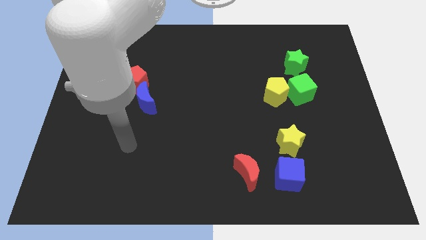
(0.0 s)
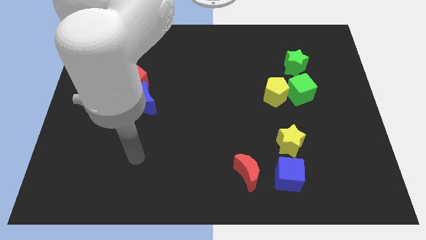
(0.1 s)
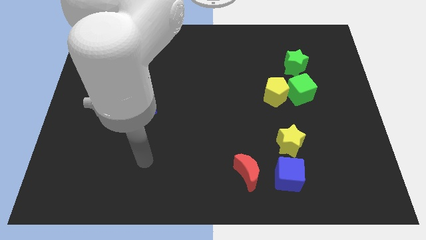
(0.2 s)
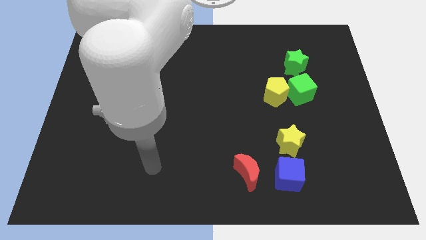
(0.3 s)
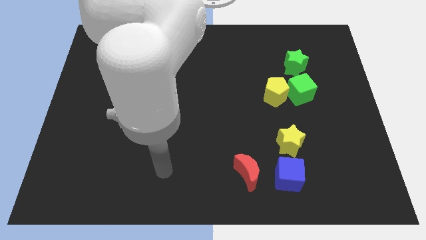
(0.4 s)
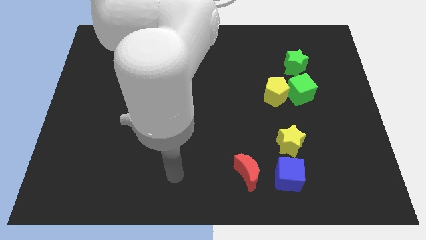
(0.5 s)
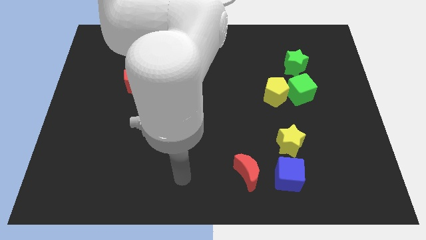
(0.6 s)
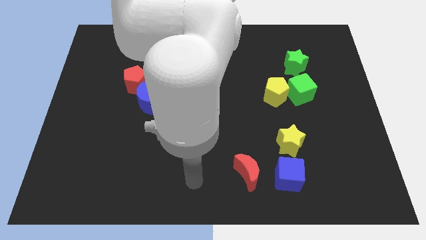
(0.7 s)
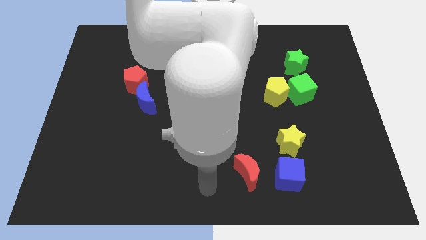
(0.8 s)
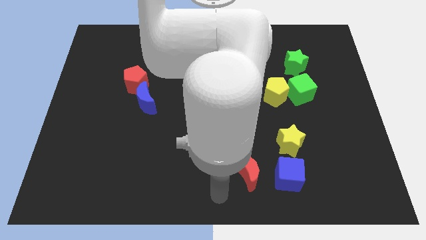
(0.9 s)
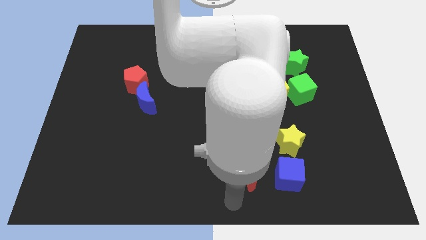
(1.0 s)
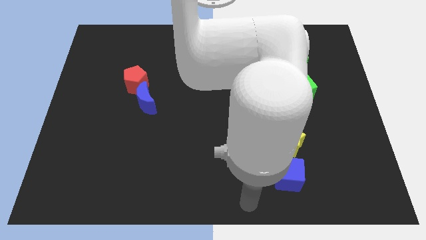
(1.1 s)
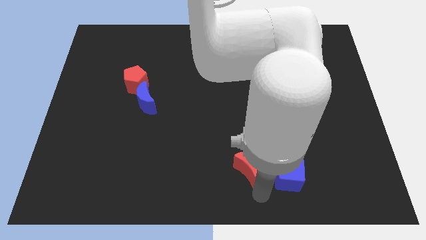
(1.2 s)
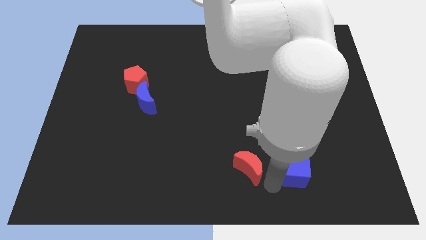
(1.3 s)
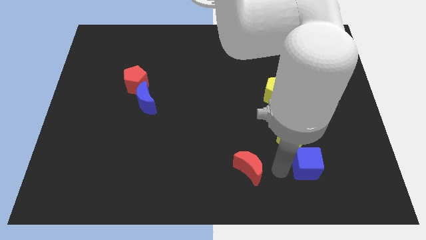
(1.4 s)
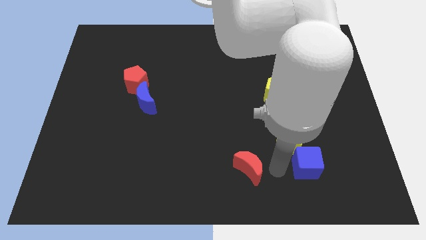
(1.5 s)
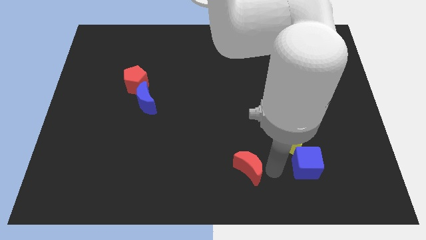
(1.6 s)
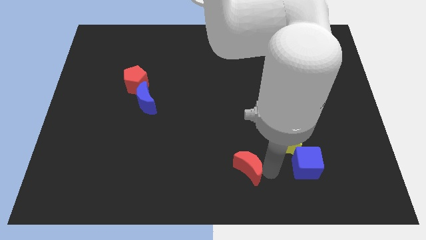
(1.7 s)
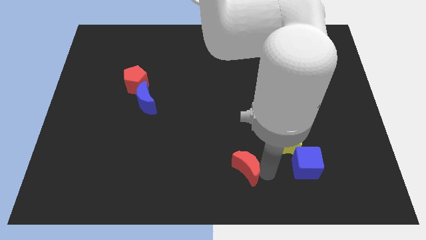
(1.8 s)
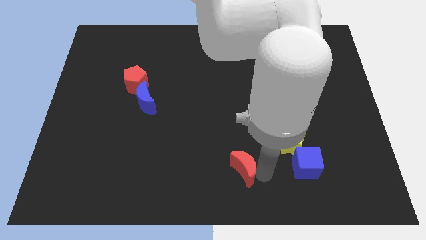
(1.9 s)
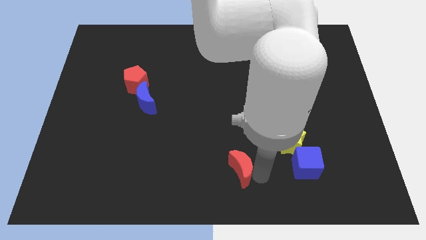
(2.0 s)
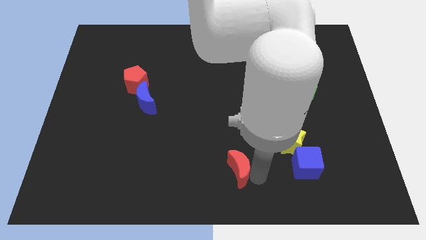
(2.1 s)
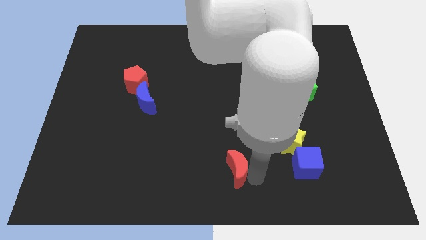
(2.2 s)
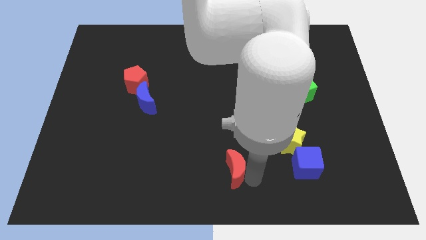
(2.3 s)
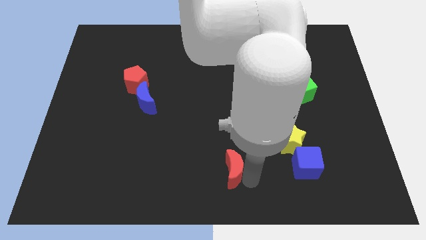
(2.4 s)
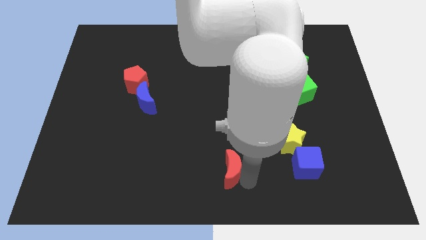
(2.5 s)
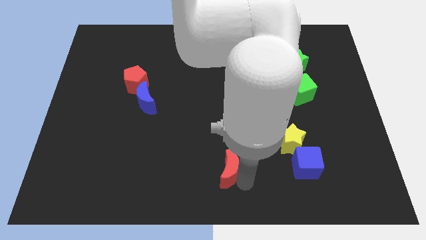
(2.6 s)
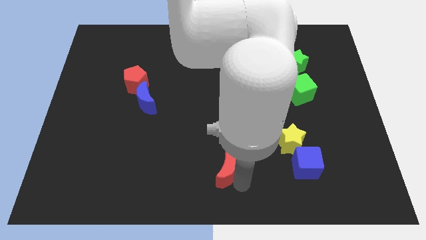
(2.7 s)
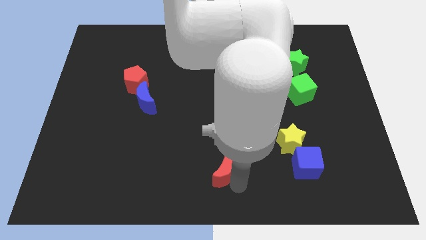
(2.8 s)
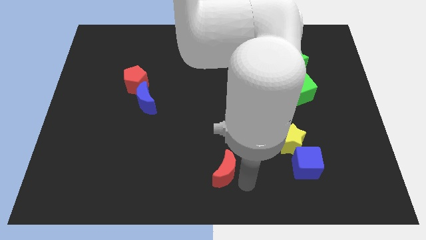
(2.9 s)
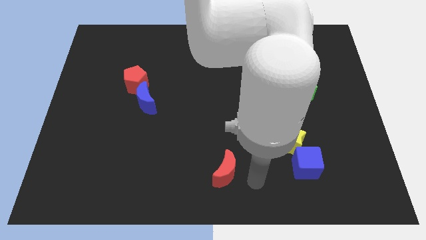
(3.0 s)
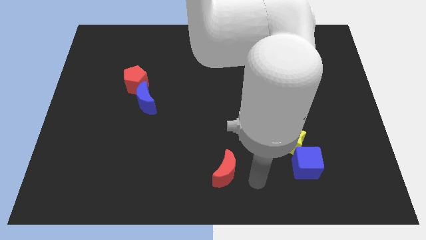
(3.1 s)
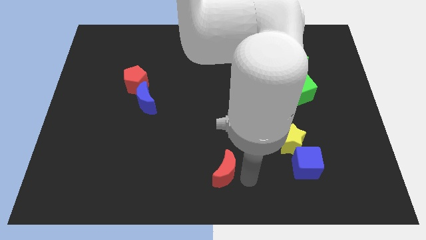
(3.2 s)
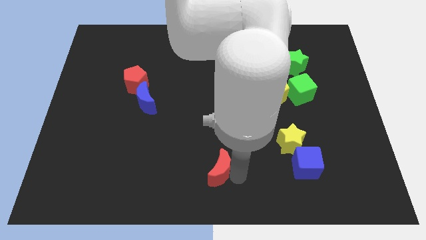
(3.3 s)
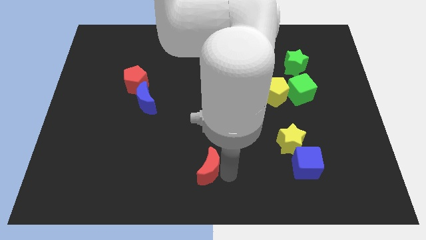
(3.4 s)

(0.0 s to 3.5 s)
move the red moon to the left a little

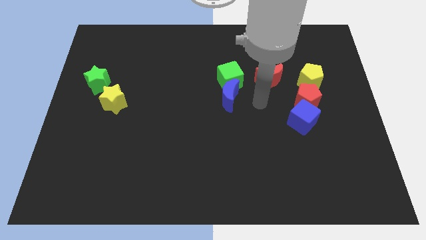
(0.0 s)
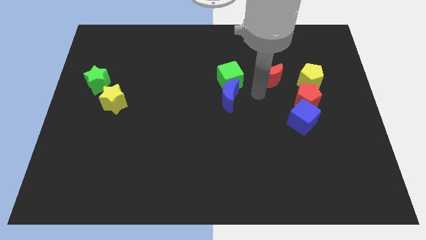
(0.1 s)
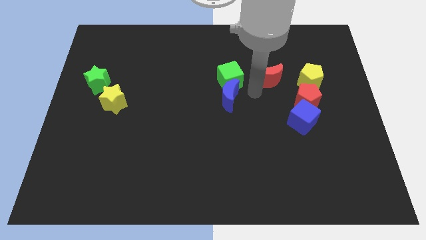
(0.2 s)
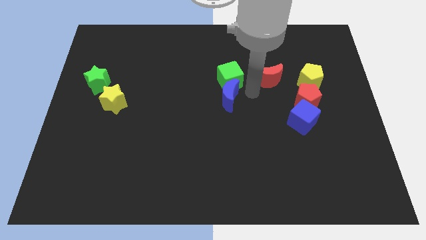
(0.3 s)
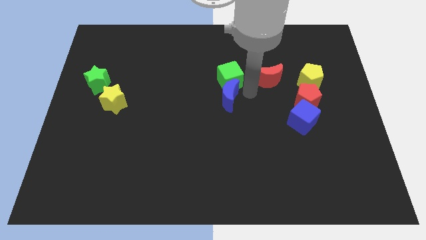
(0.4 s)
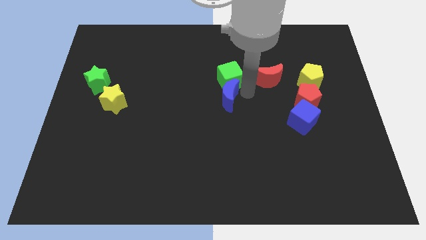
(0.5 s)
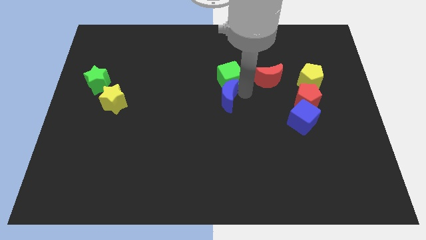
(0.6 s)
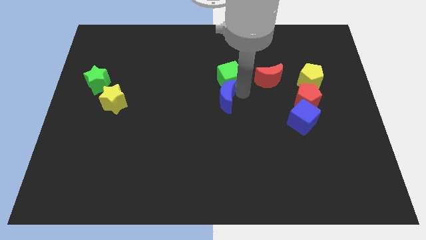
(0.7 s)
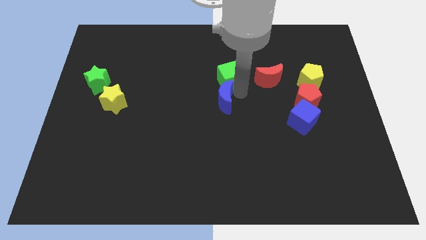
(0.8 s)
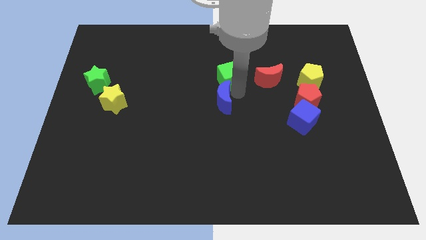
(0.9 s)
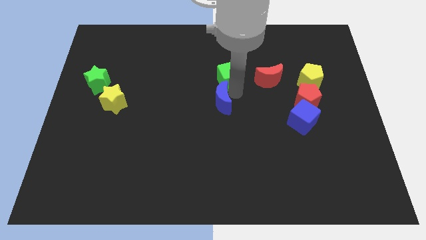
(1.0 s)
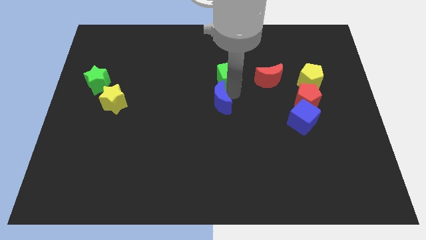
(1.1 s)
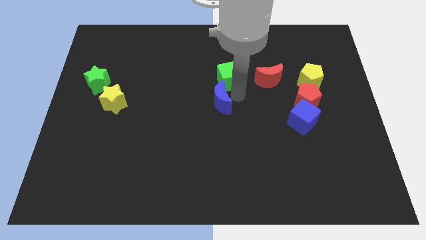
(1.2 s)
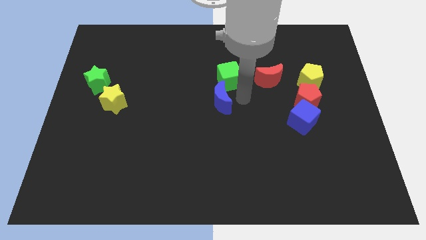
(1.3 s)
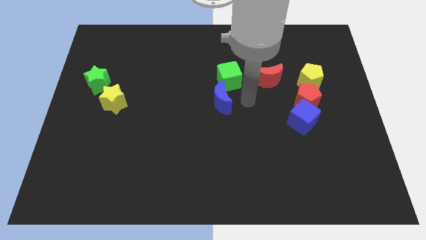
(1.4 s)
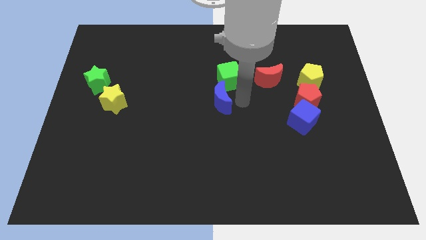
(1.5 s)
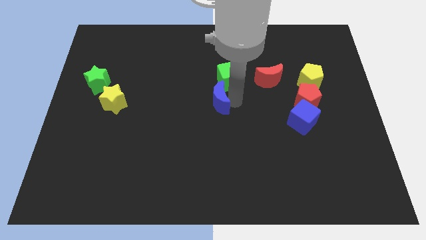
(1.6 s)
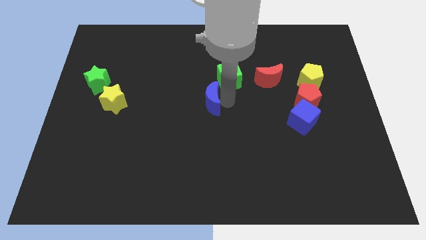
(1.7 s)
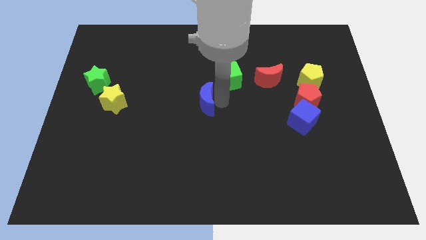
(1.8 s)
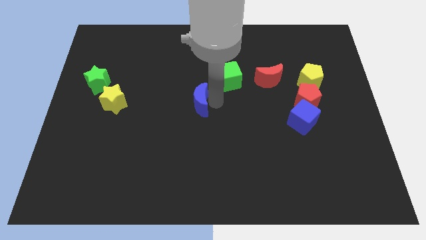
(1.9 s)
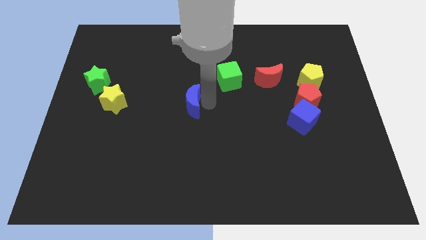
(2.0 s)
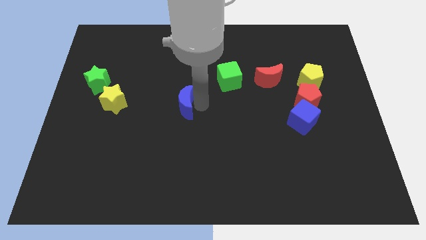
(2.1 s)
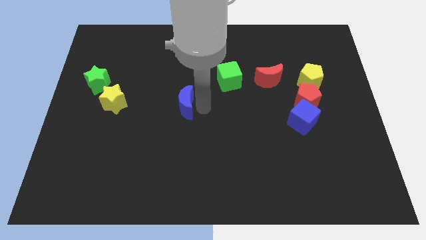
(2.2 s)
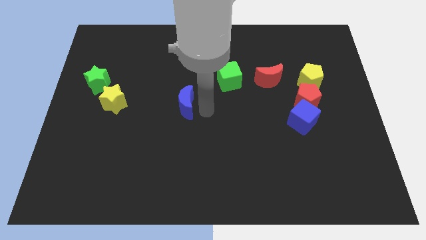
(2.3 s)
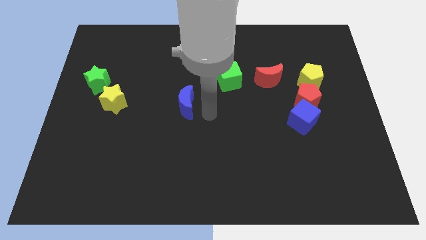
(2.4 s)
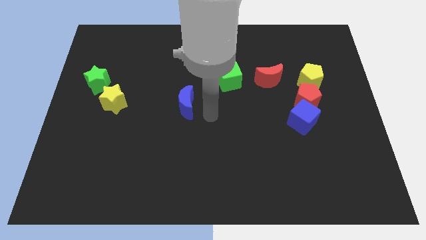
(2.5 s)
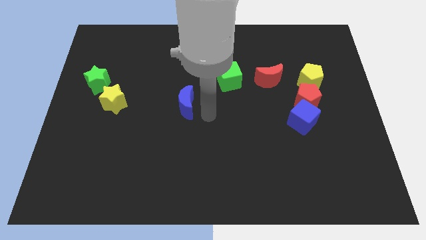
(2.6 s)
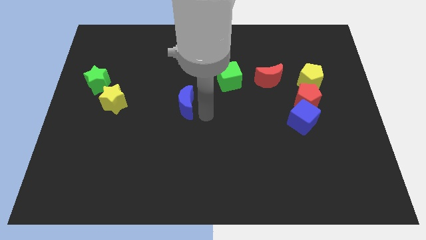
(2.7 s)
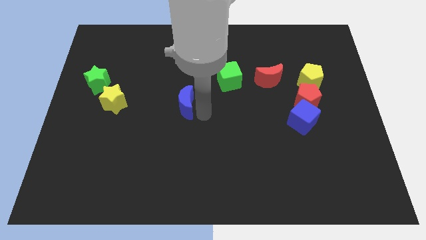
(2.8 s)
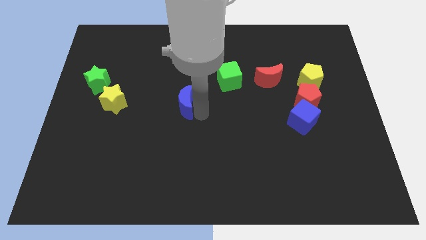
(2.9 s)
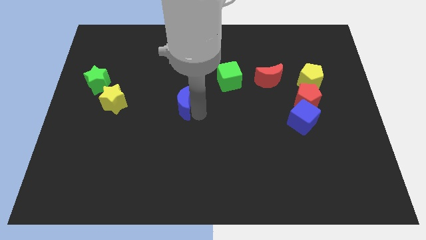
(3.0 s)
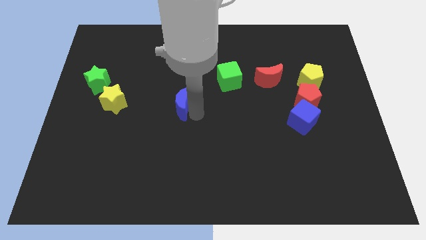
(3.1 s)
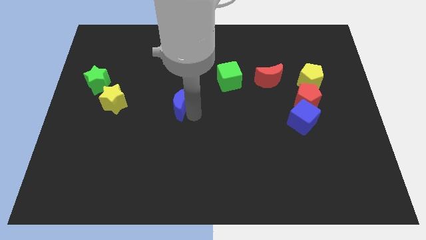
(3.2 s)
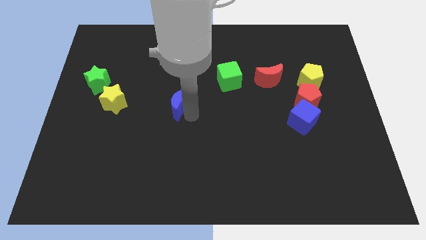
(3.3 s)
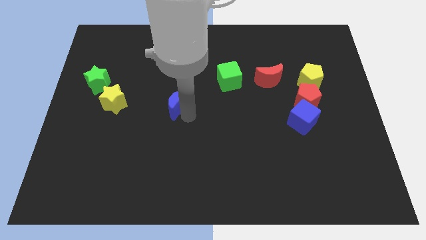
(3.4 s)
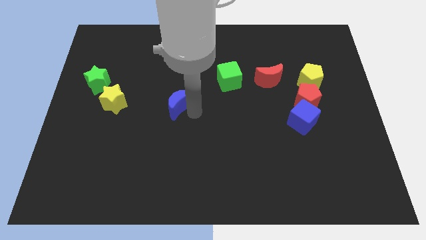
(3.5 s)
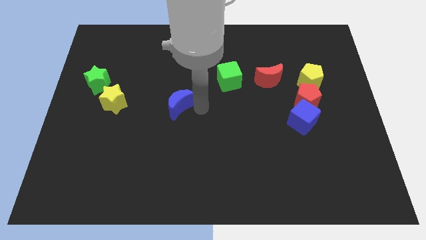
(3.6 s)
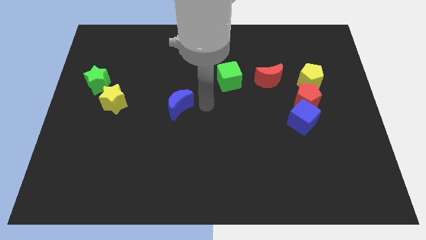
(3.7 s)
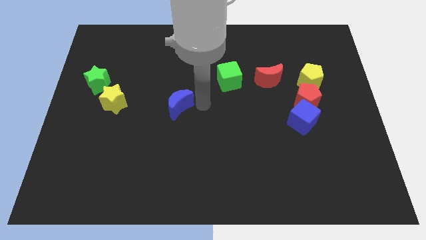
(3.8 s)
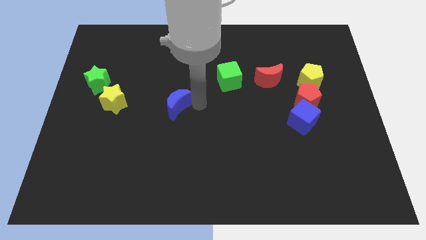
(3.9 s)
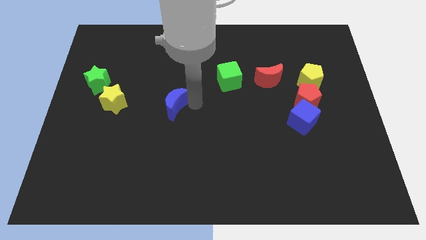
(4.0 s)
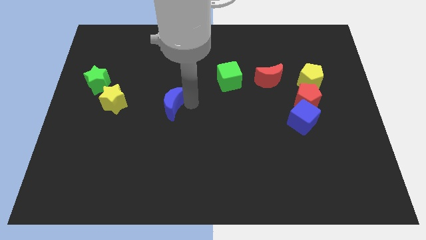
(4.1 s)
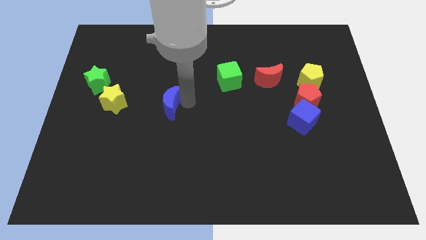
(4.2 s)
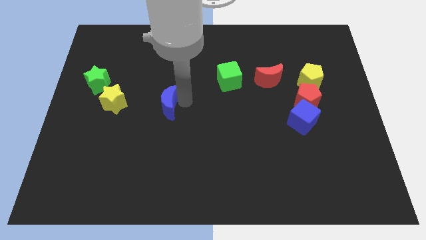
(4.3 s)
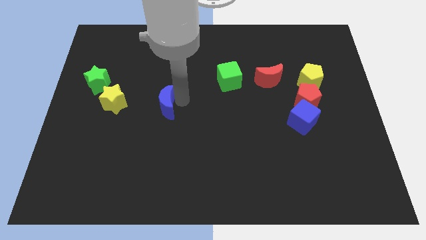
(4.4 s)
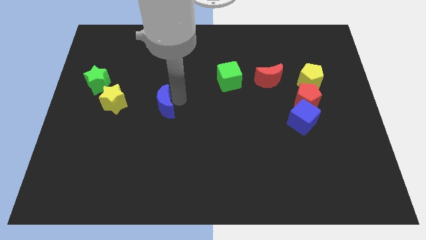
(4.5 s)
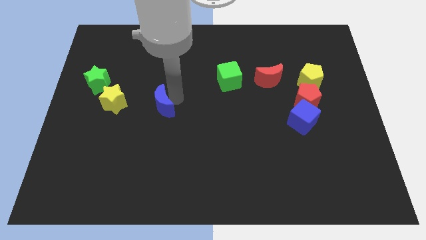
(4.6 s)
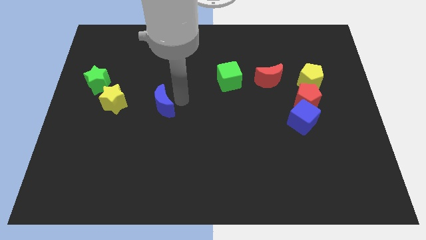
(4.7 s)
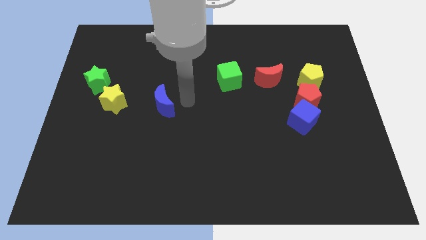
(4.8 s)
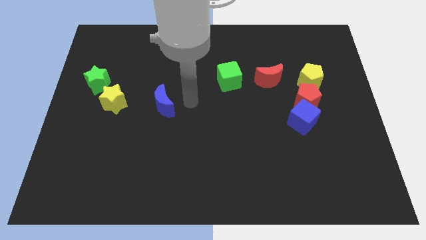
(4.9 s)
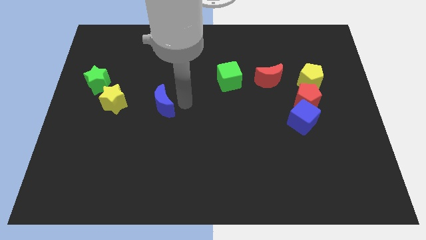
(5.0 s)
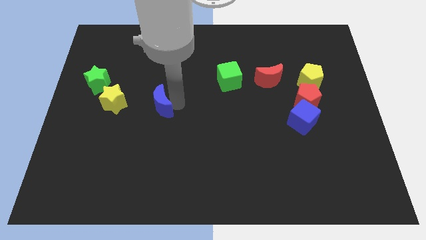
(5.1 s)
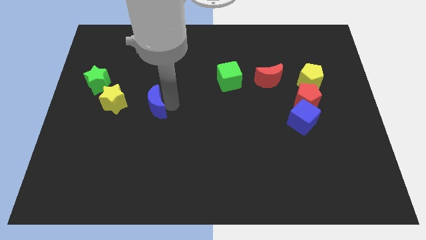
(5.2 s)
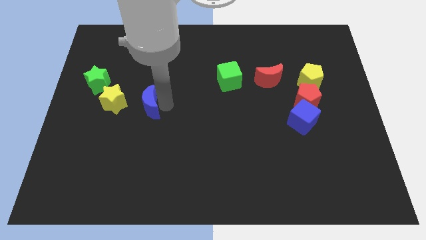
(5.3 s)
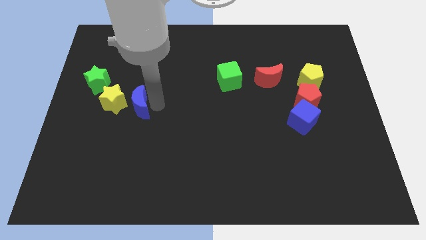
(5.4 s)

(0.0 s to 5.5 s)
move the blue moon left
